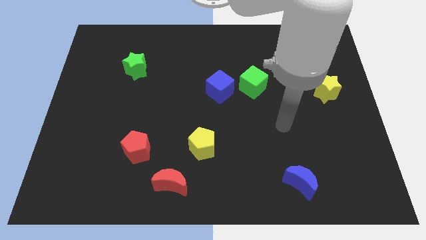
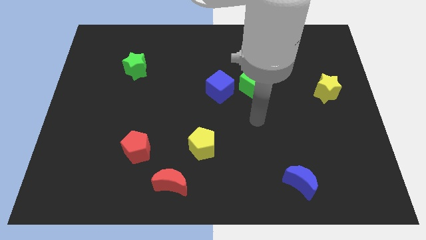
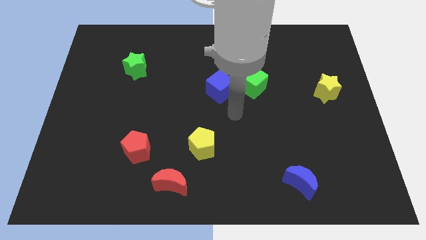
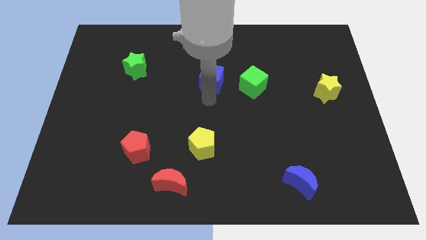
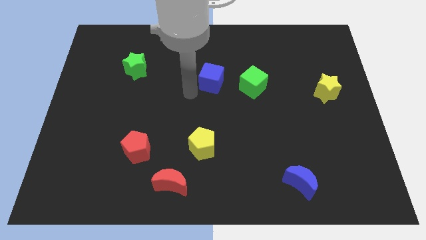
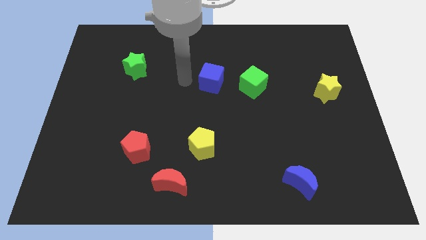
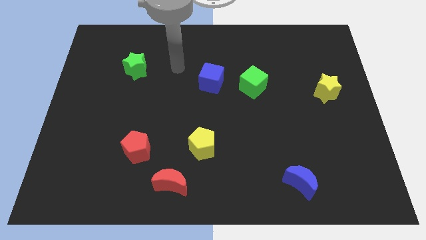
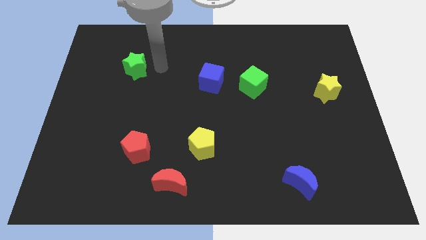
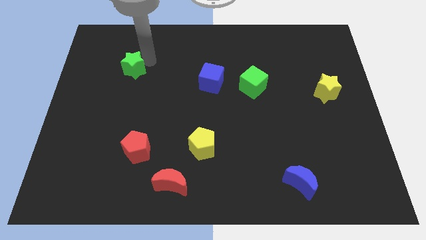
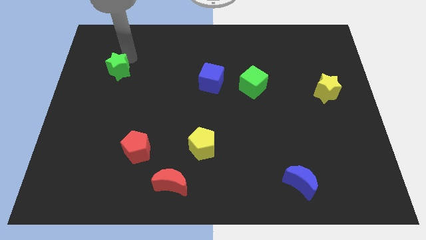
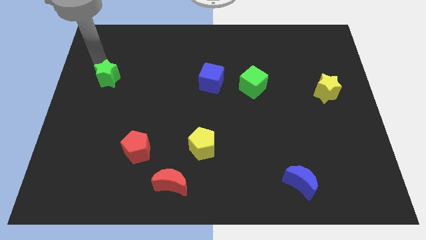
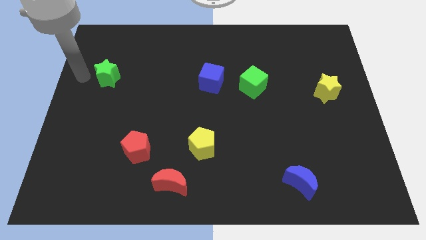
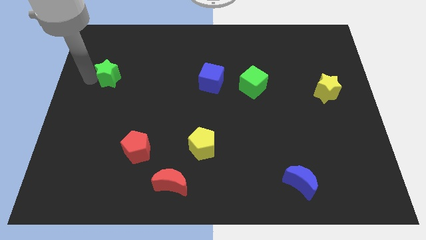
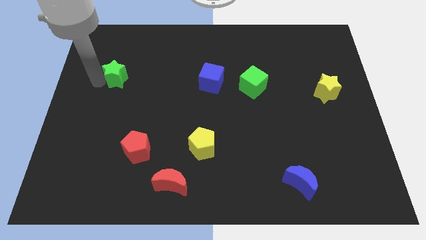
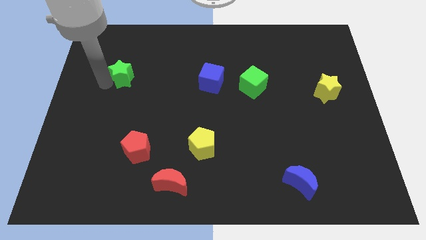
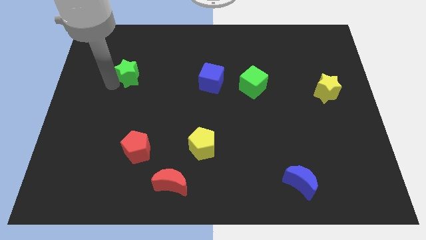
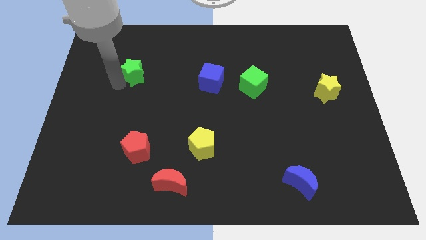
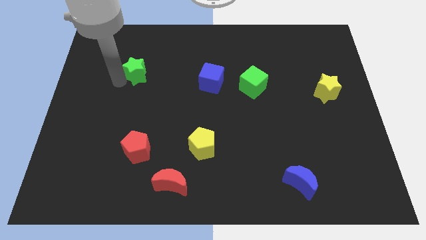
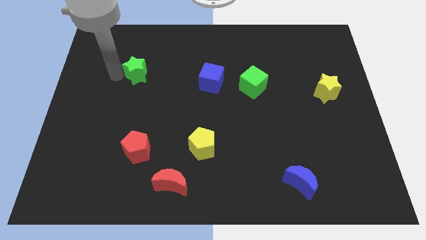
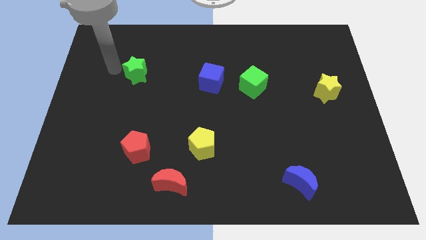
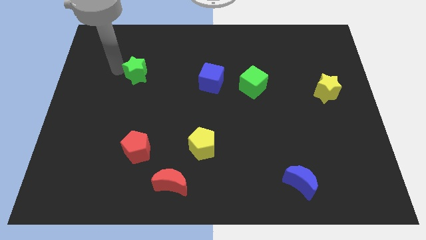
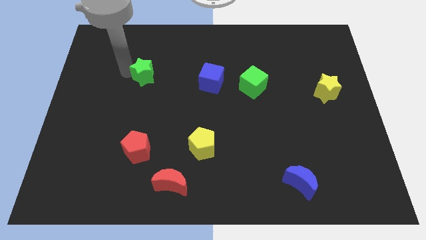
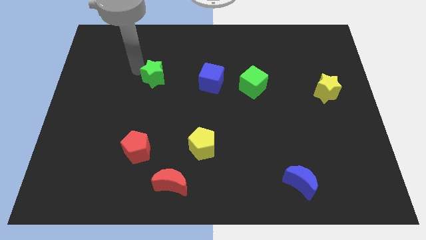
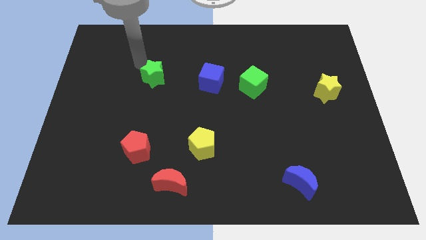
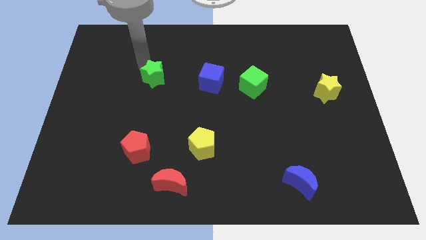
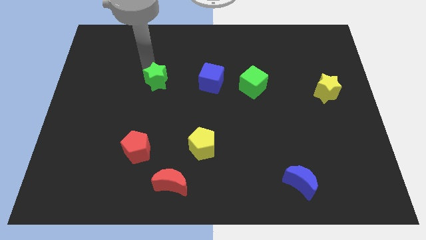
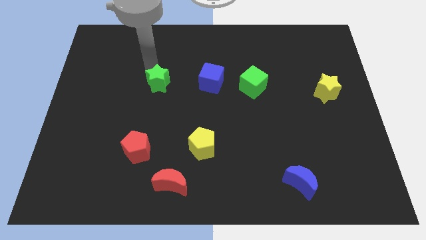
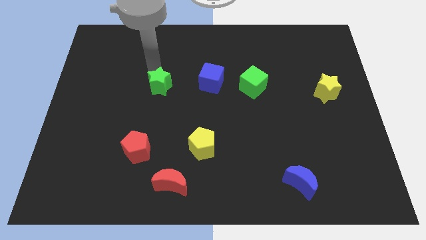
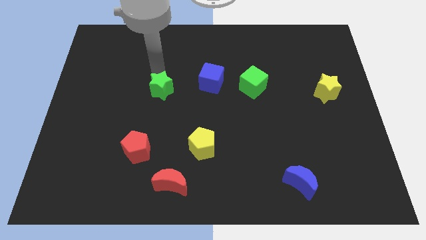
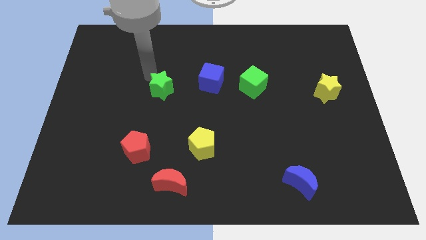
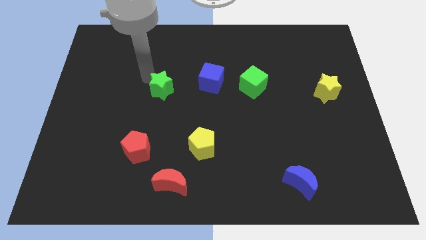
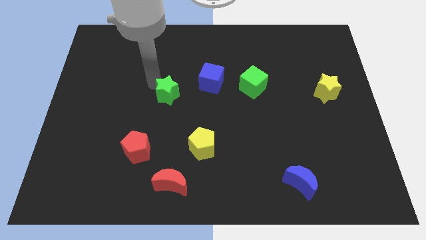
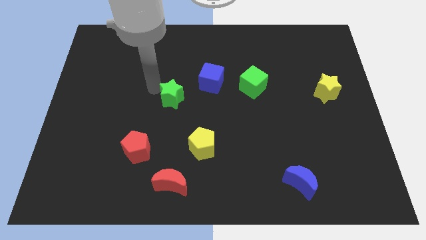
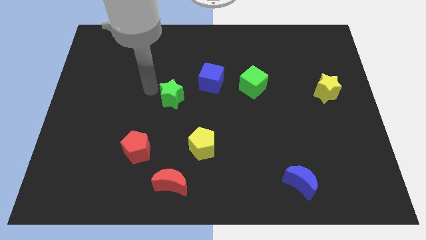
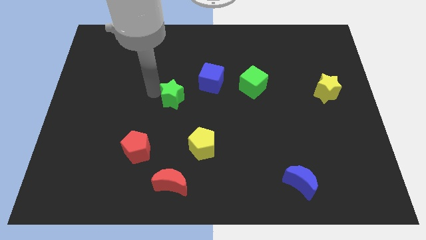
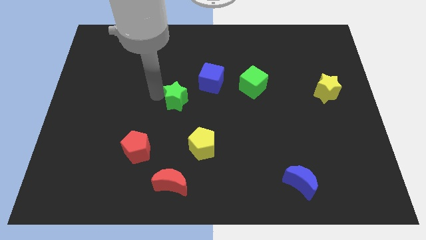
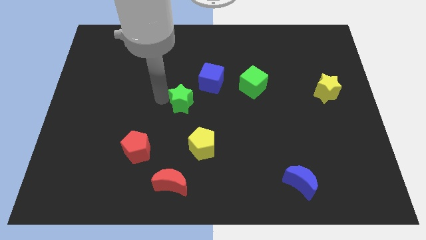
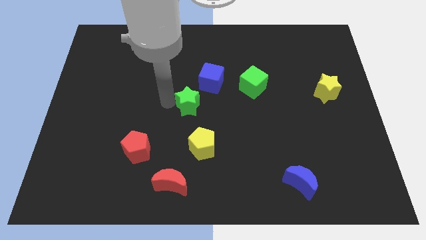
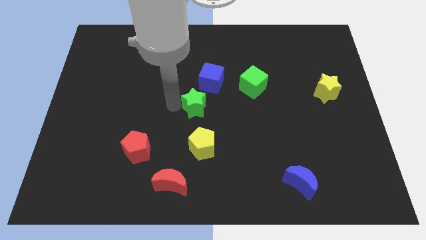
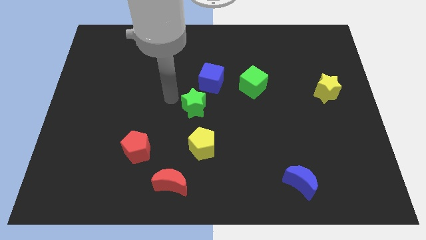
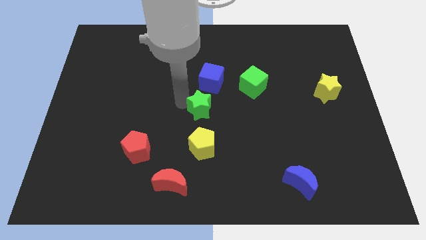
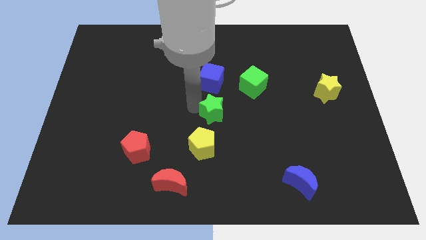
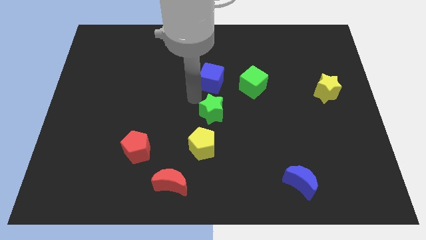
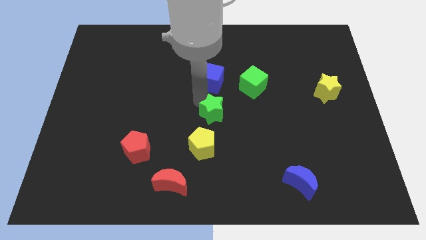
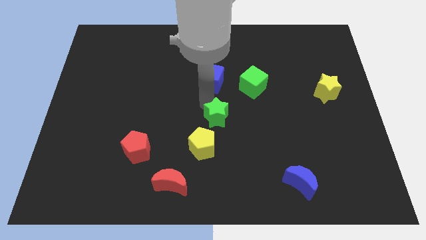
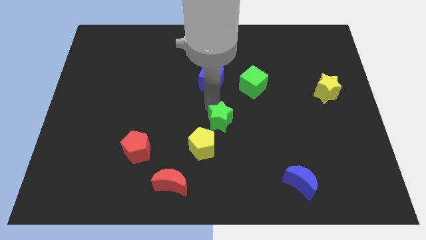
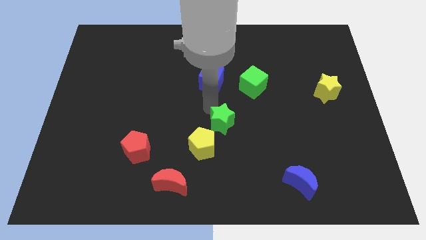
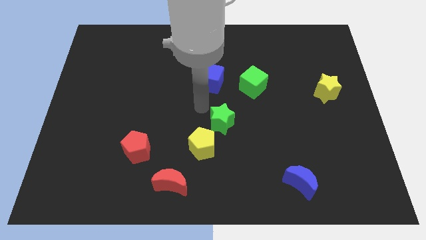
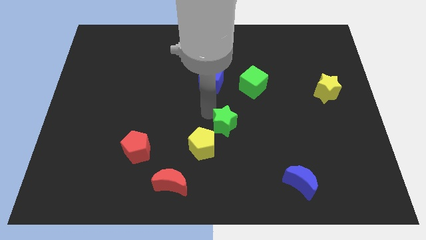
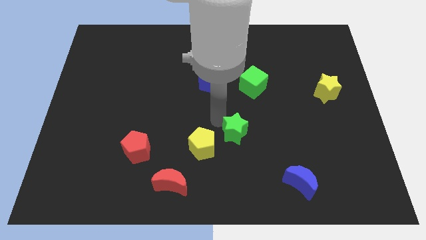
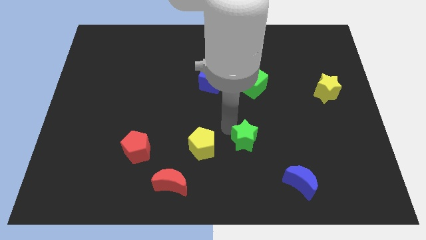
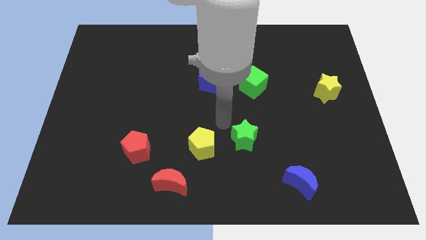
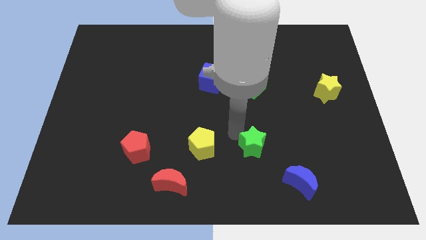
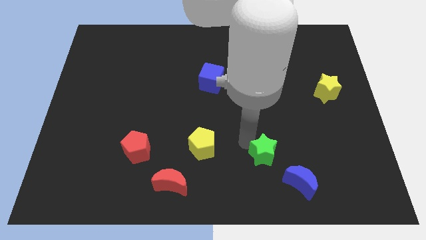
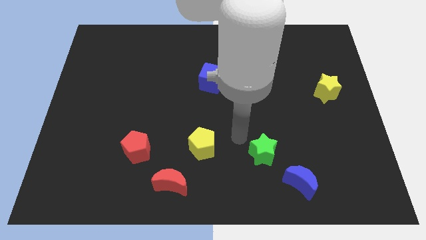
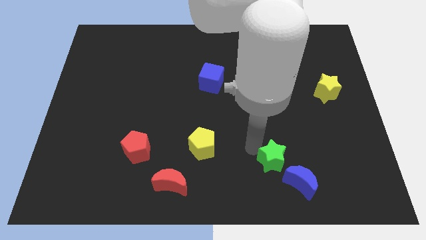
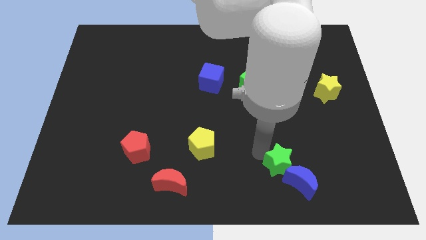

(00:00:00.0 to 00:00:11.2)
put the green star next to the blue moon

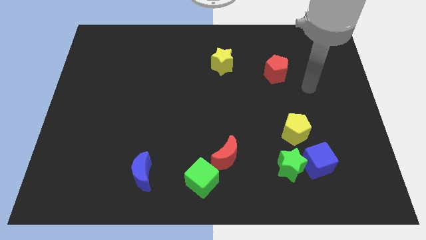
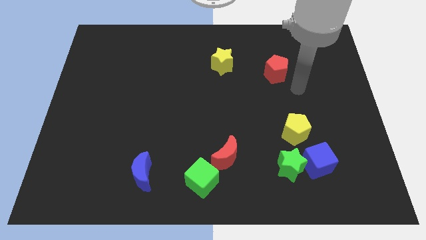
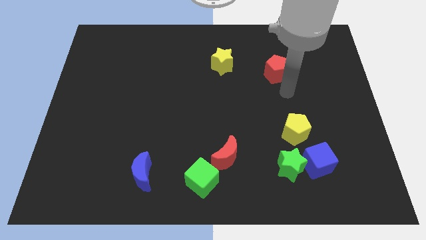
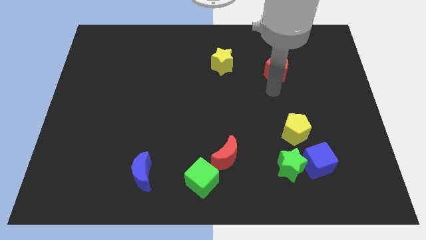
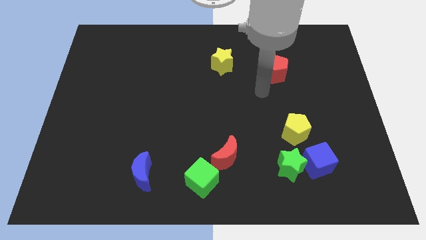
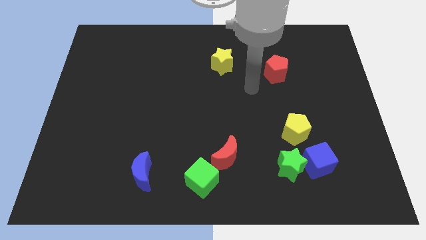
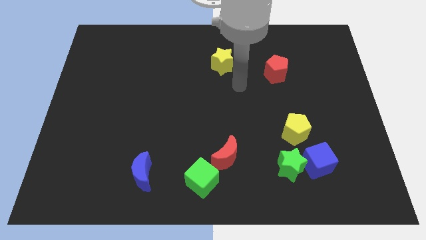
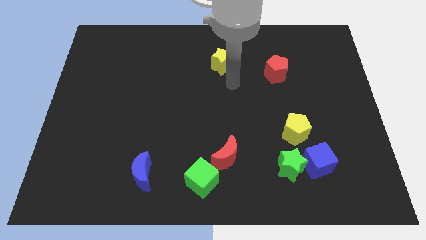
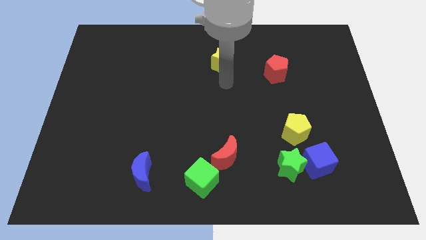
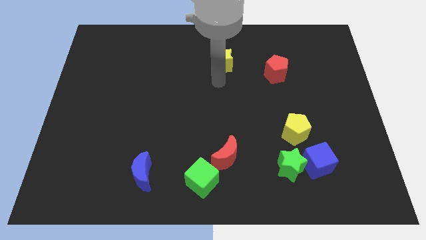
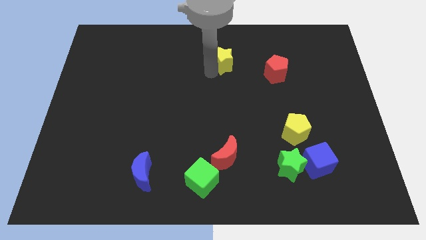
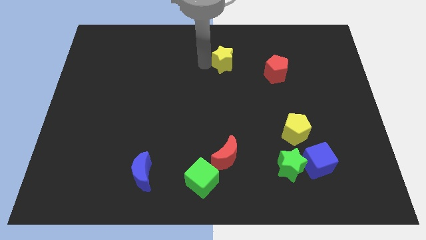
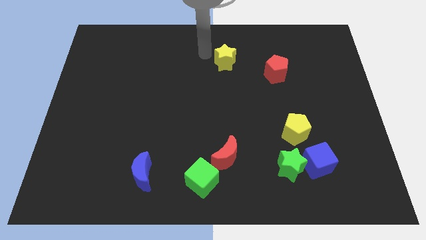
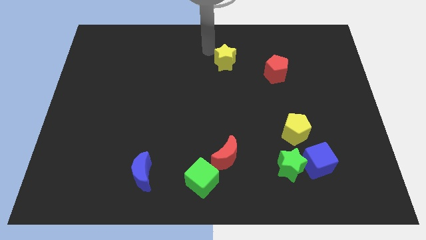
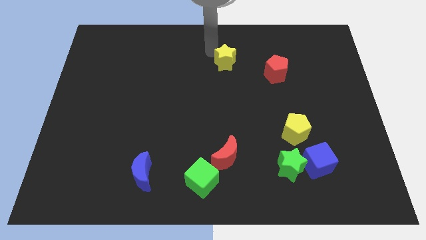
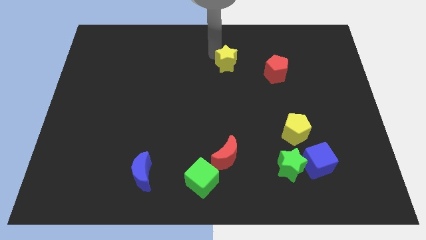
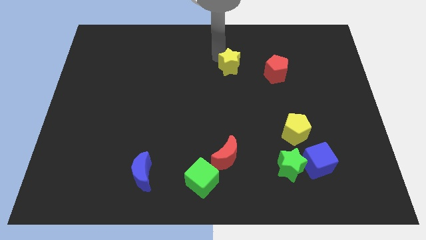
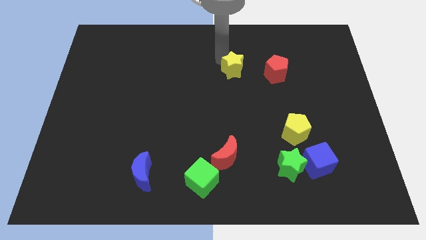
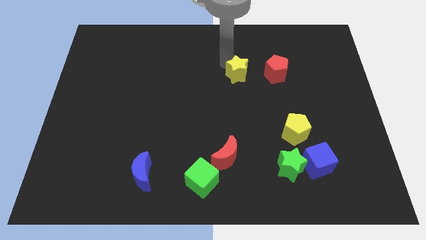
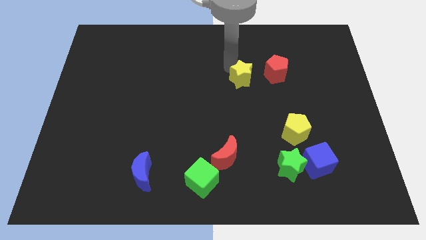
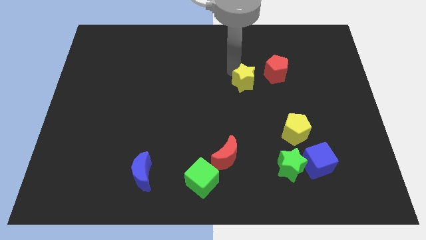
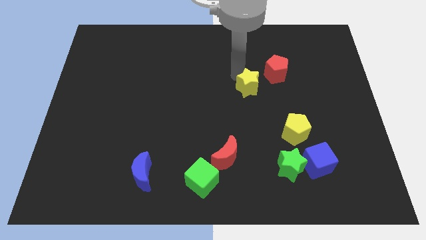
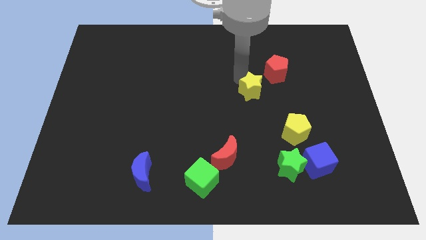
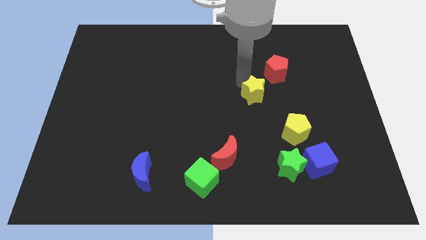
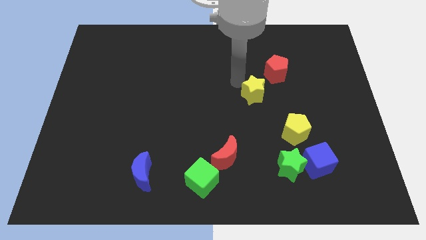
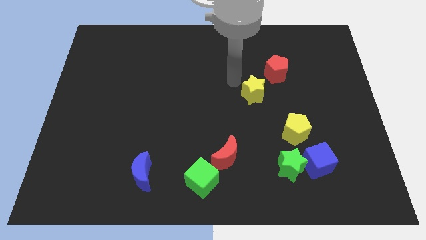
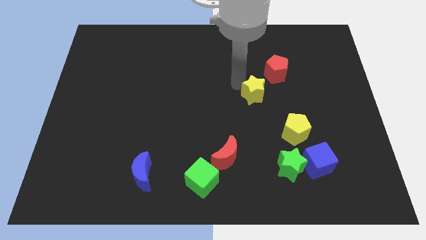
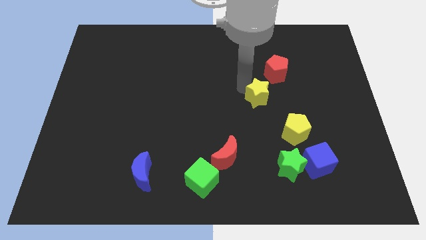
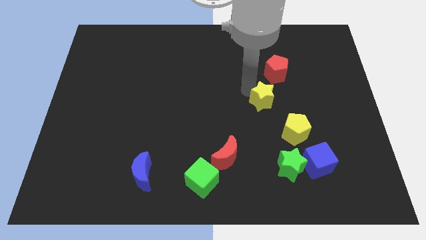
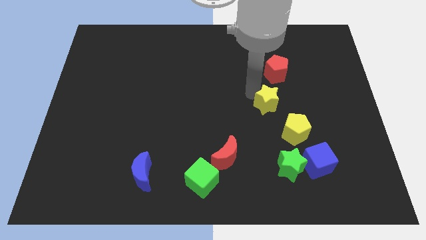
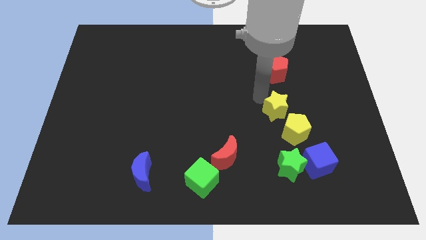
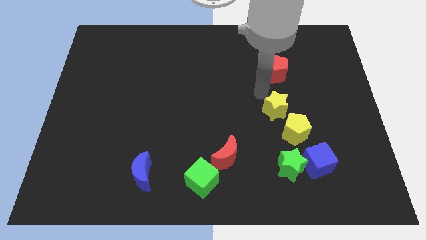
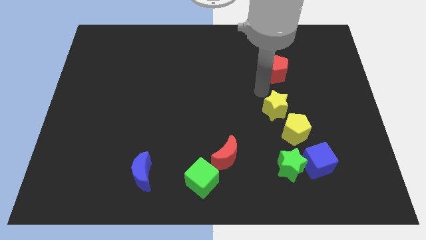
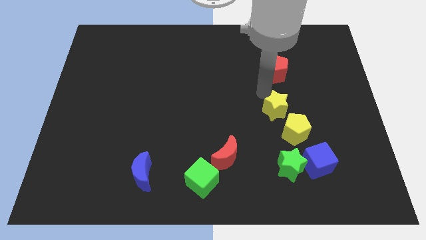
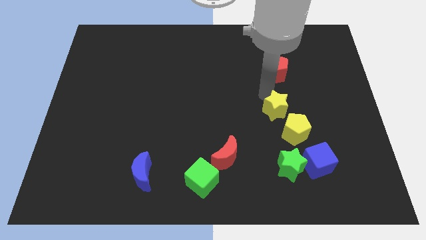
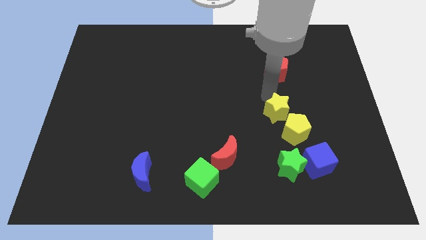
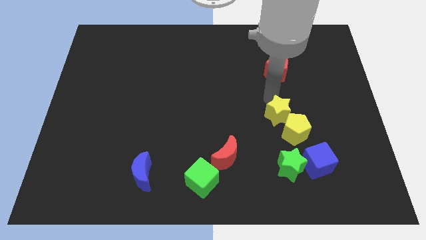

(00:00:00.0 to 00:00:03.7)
push the yellow star next to the yellow pentagon
